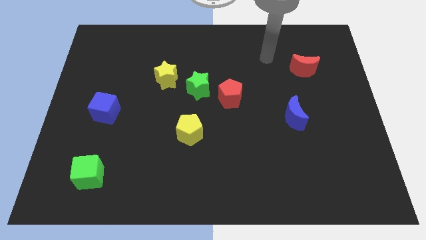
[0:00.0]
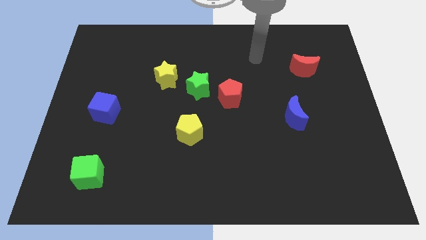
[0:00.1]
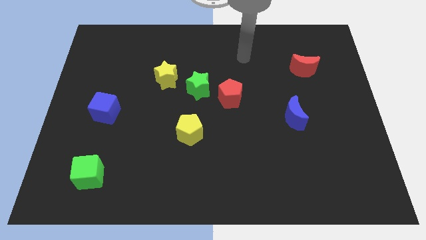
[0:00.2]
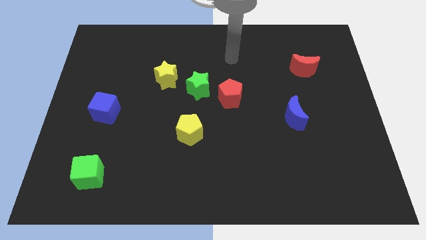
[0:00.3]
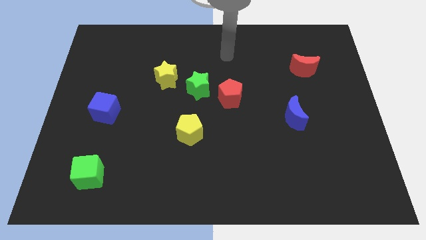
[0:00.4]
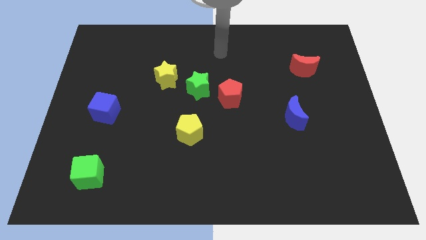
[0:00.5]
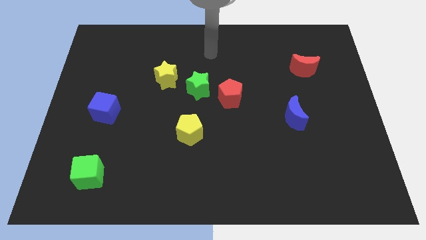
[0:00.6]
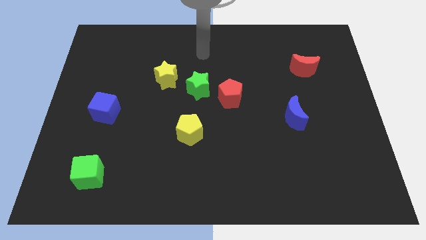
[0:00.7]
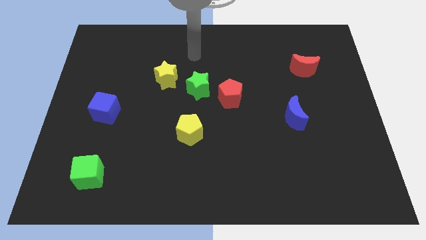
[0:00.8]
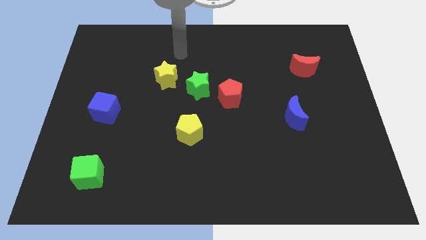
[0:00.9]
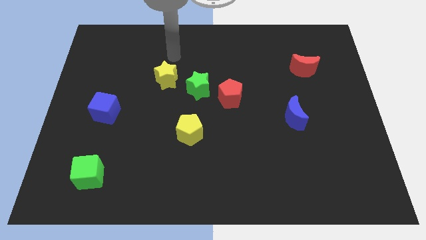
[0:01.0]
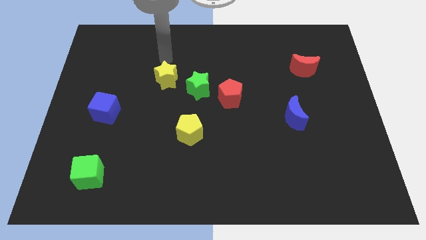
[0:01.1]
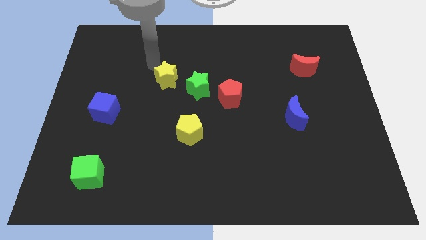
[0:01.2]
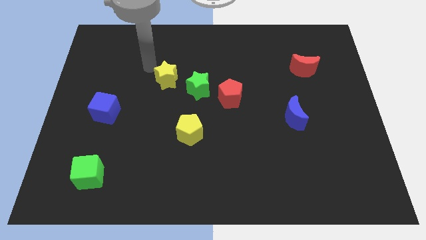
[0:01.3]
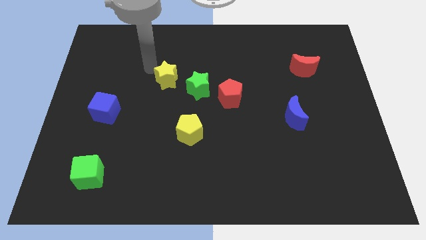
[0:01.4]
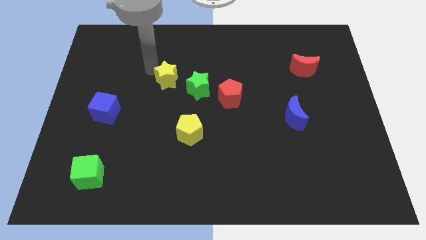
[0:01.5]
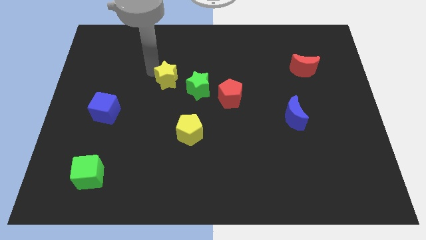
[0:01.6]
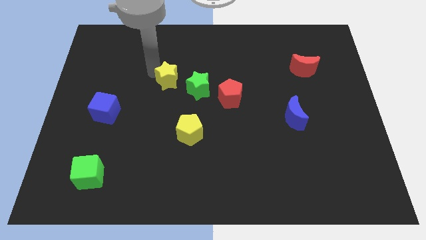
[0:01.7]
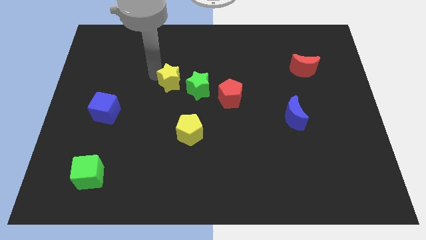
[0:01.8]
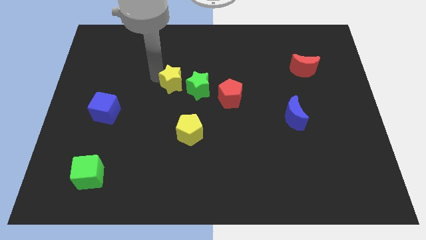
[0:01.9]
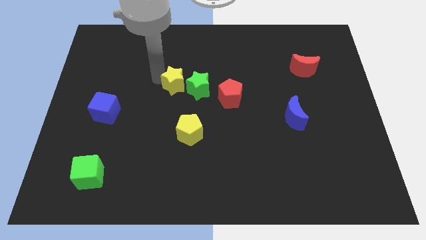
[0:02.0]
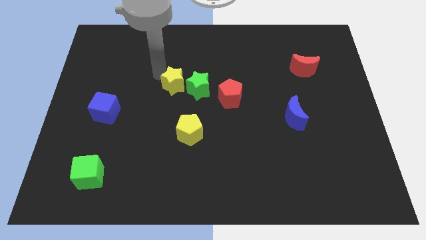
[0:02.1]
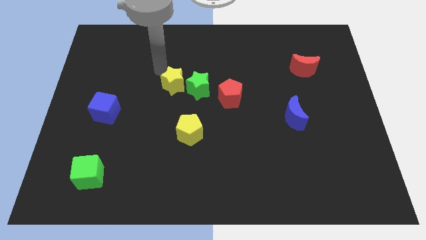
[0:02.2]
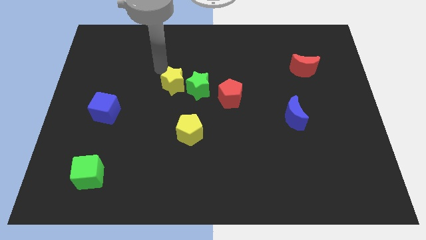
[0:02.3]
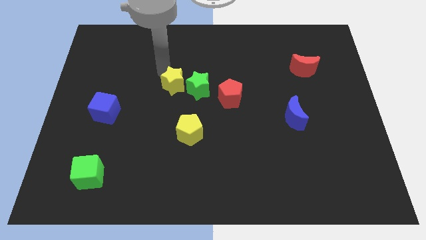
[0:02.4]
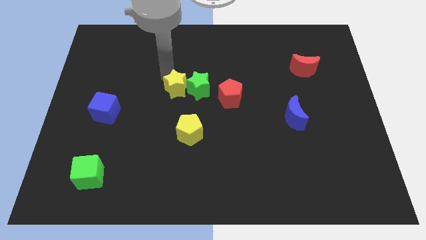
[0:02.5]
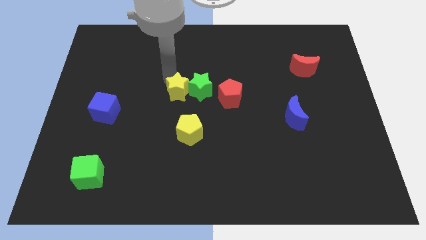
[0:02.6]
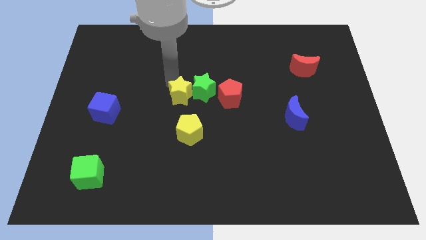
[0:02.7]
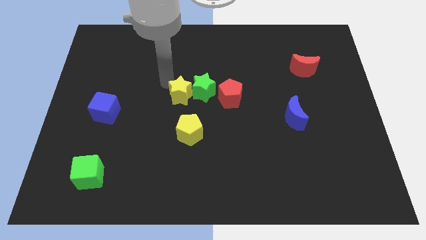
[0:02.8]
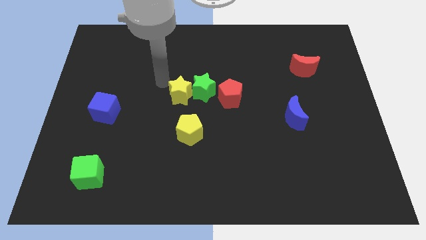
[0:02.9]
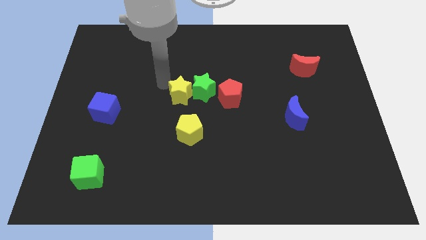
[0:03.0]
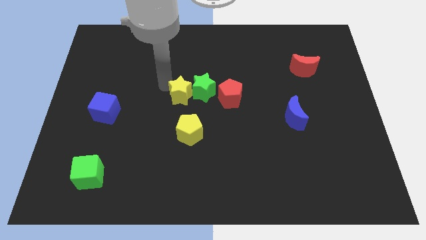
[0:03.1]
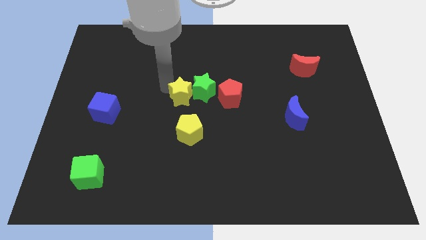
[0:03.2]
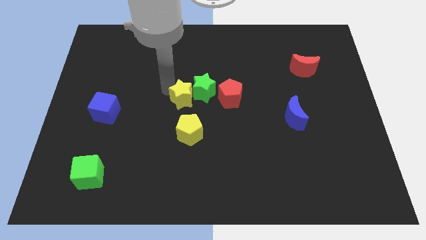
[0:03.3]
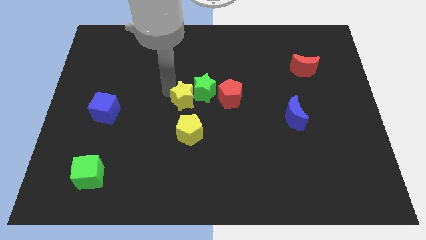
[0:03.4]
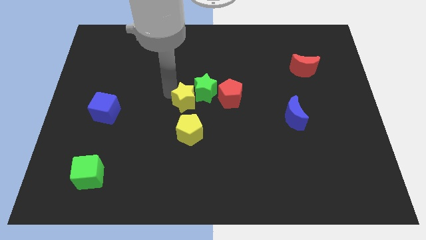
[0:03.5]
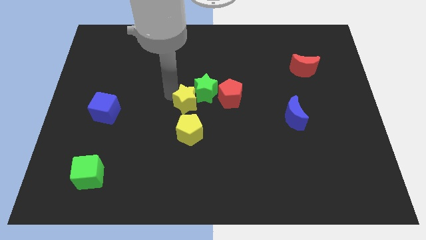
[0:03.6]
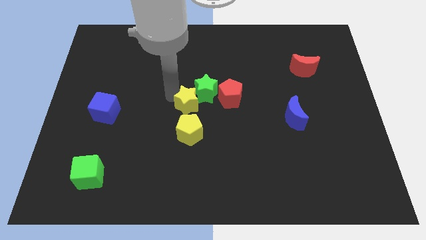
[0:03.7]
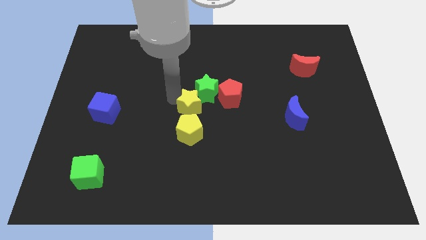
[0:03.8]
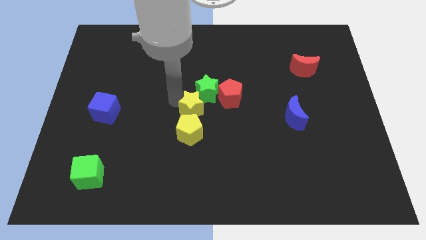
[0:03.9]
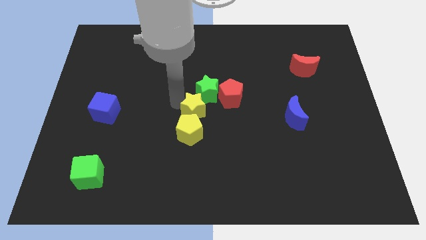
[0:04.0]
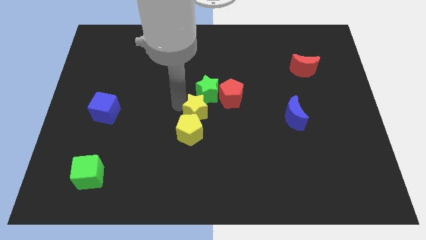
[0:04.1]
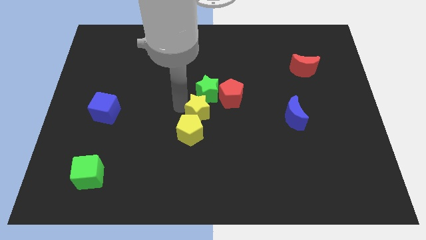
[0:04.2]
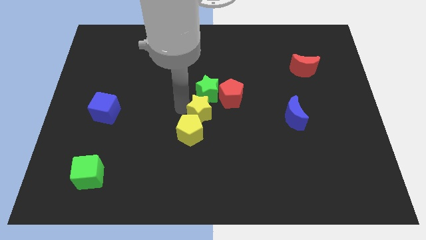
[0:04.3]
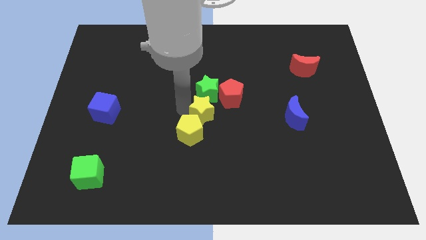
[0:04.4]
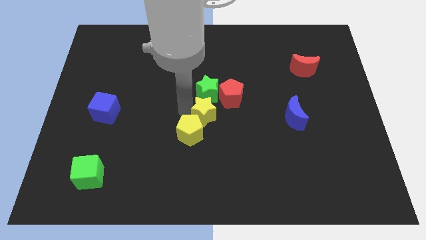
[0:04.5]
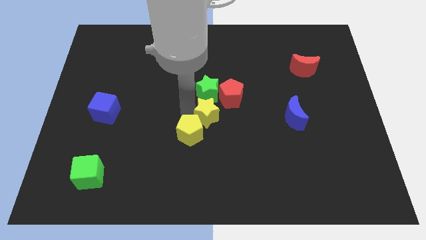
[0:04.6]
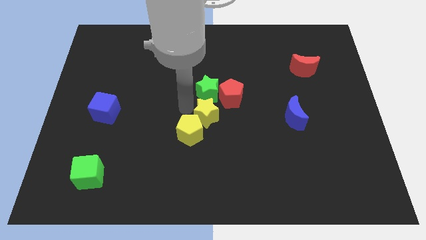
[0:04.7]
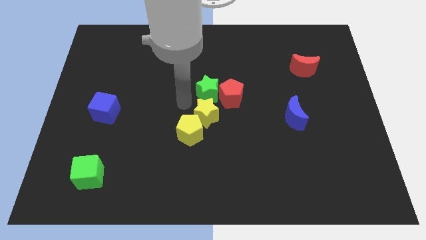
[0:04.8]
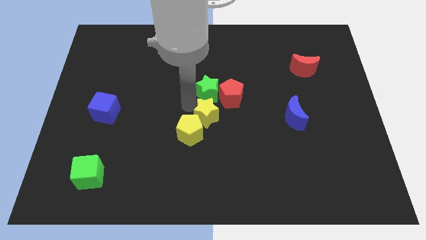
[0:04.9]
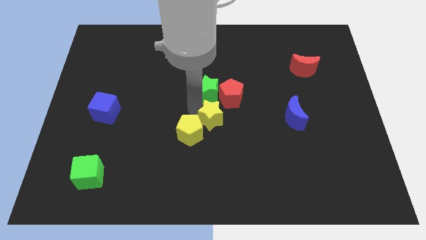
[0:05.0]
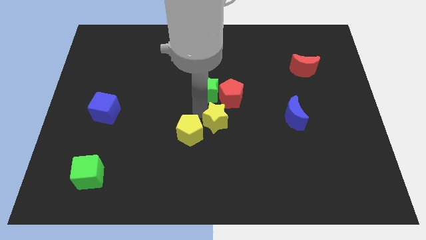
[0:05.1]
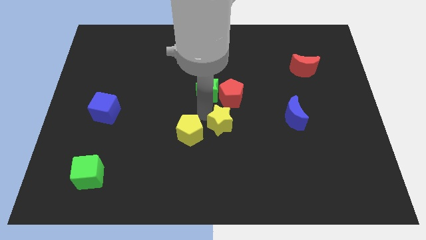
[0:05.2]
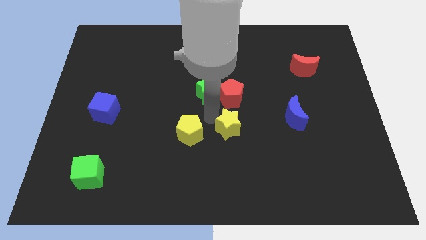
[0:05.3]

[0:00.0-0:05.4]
slide the yellow star downwards and right

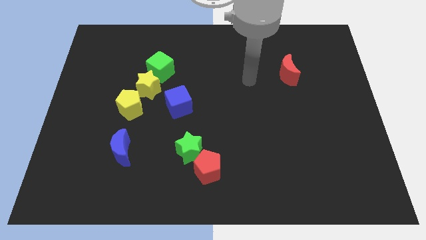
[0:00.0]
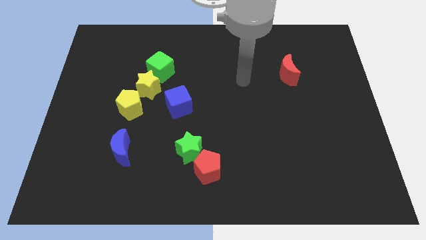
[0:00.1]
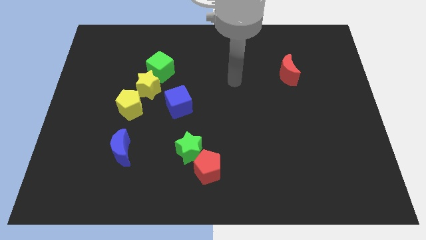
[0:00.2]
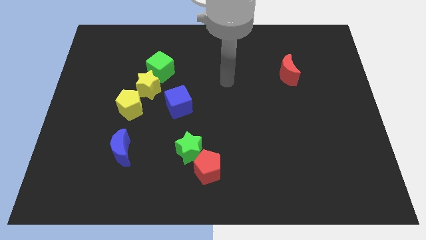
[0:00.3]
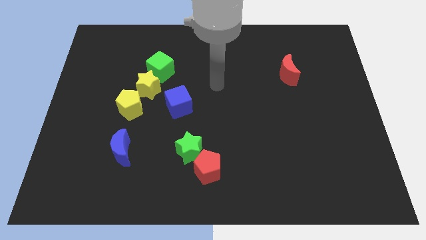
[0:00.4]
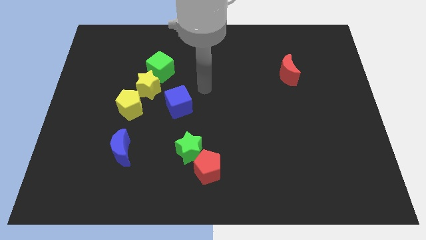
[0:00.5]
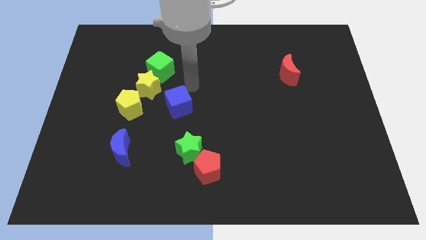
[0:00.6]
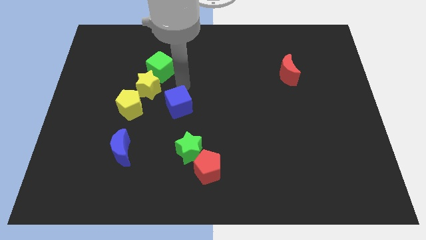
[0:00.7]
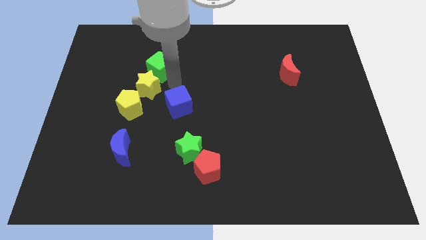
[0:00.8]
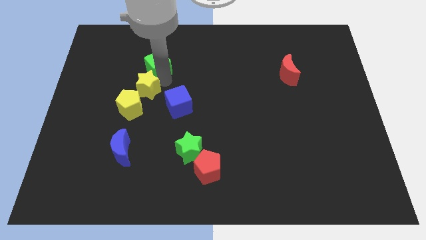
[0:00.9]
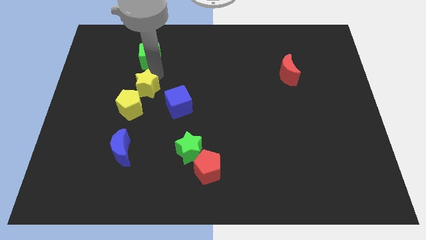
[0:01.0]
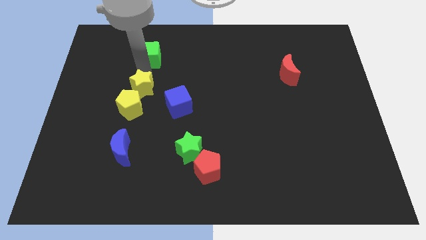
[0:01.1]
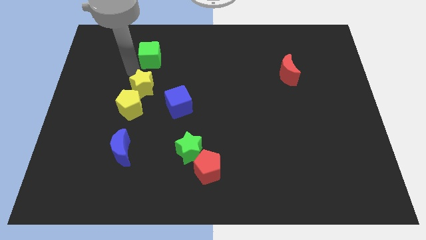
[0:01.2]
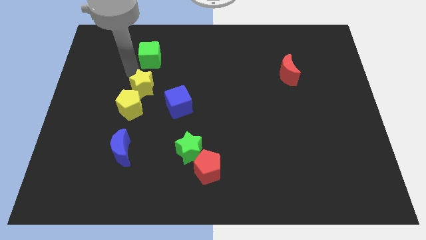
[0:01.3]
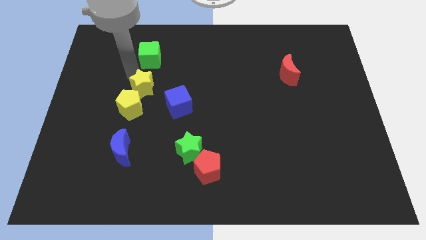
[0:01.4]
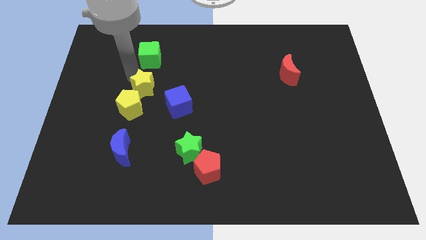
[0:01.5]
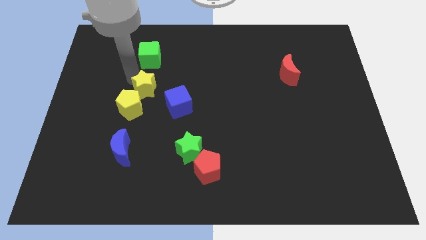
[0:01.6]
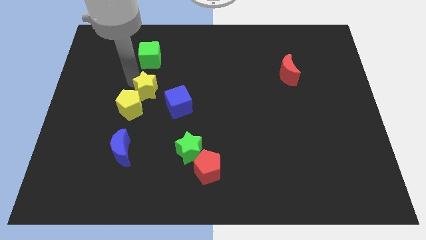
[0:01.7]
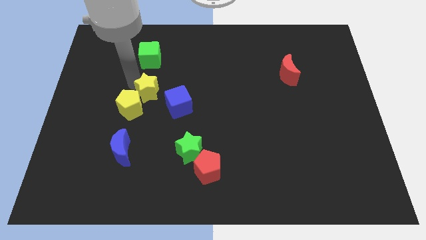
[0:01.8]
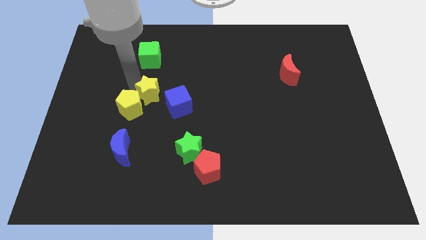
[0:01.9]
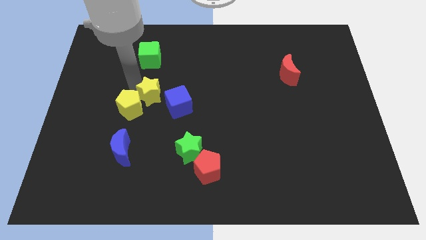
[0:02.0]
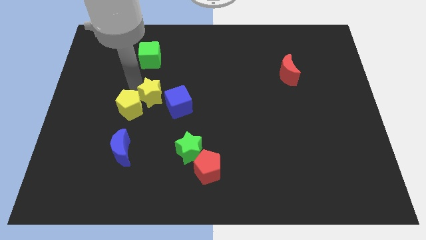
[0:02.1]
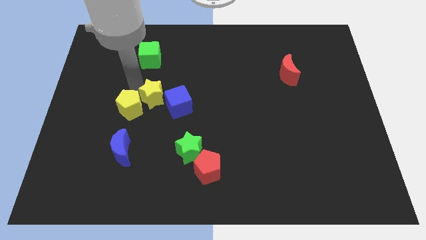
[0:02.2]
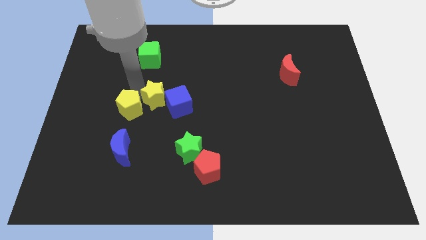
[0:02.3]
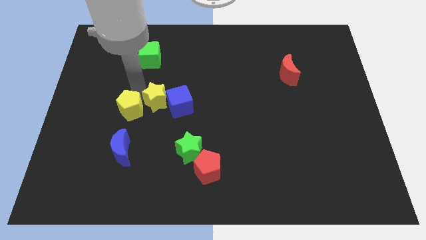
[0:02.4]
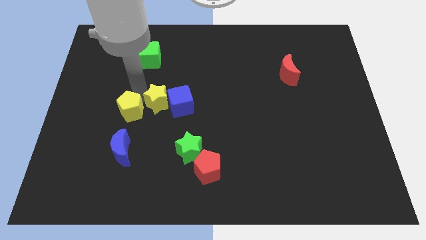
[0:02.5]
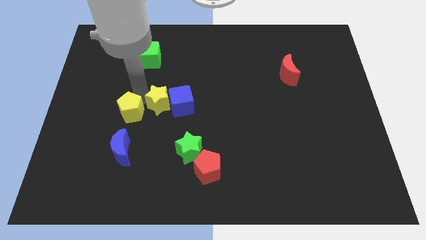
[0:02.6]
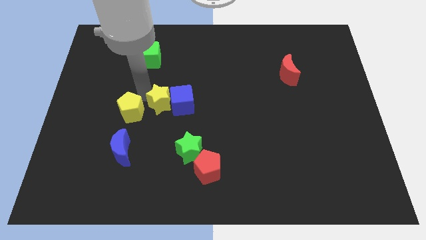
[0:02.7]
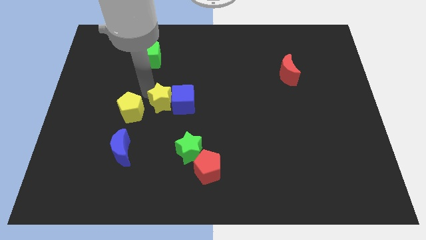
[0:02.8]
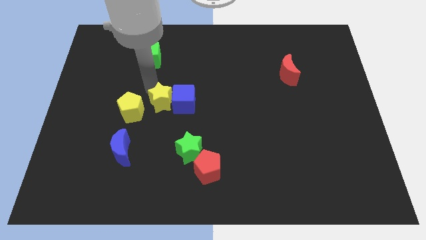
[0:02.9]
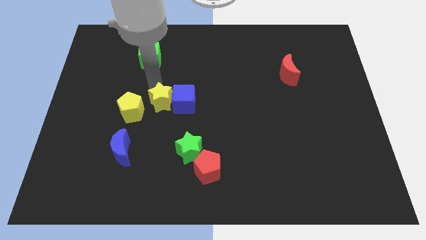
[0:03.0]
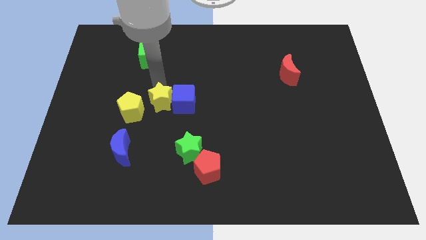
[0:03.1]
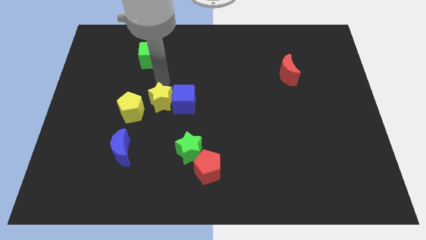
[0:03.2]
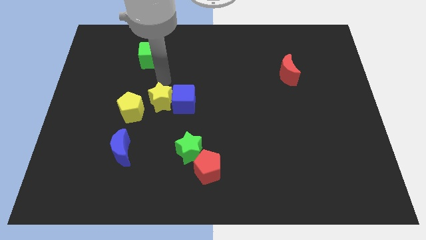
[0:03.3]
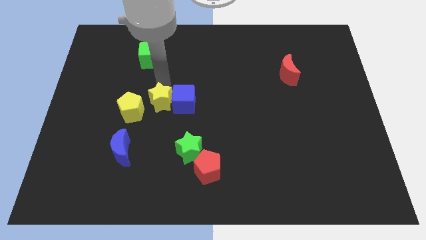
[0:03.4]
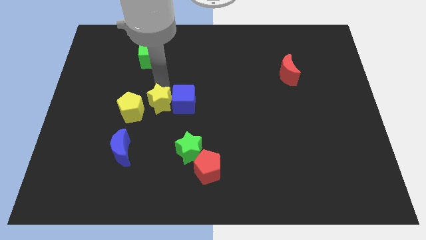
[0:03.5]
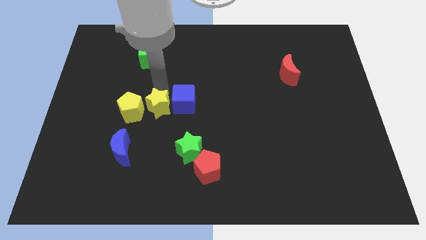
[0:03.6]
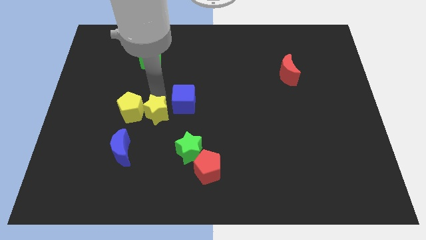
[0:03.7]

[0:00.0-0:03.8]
push the yellow star a bit diagonally downwards and right
